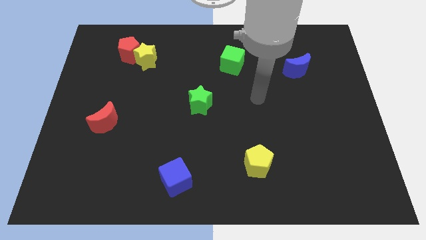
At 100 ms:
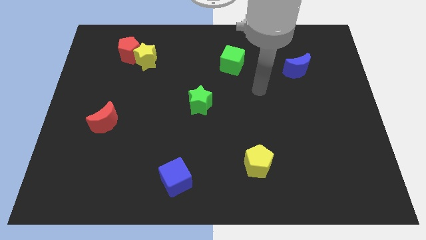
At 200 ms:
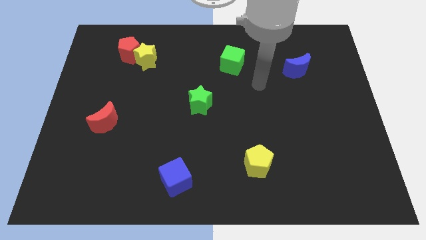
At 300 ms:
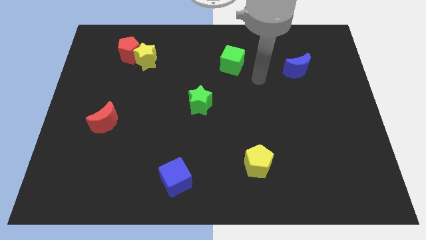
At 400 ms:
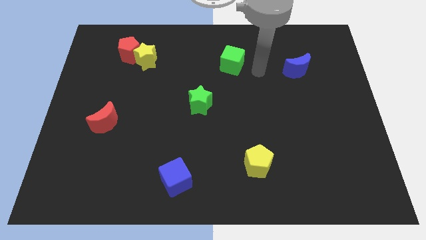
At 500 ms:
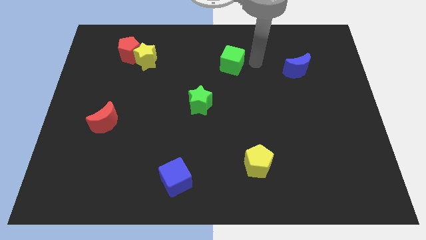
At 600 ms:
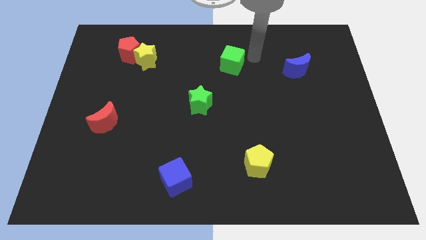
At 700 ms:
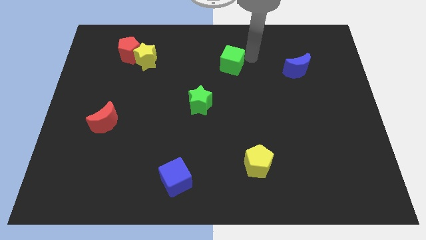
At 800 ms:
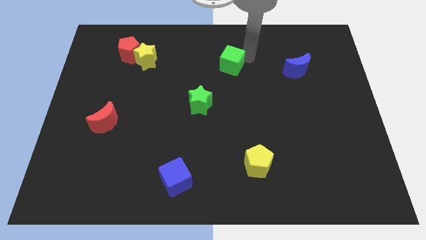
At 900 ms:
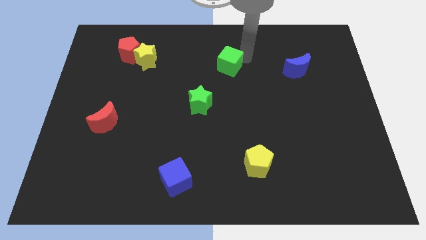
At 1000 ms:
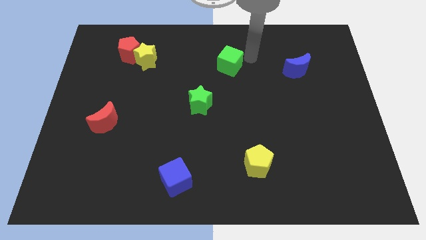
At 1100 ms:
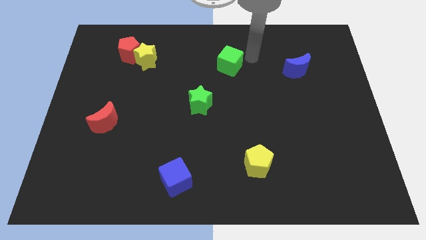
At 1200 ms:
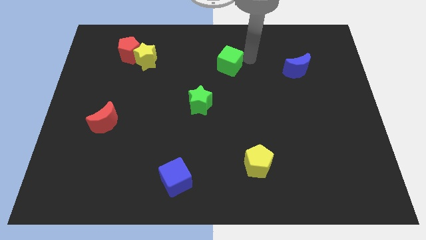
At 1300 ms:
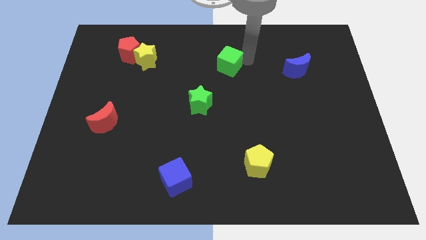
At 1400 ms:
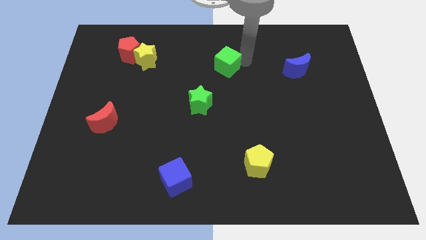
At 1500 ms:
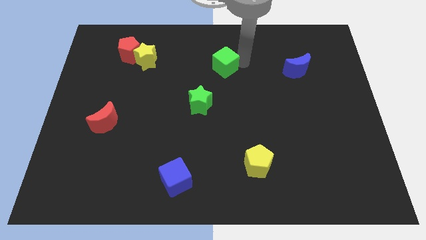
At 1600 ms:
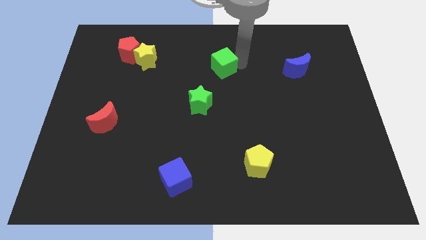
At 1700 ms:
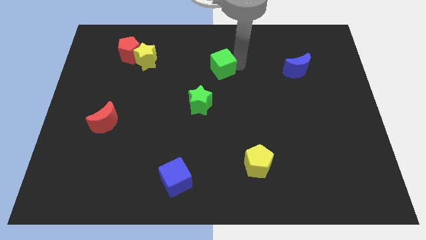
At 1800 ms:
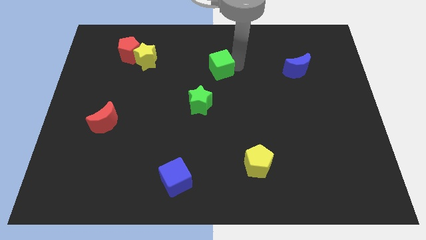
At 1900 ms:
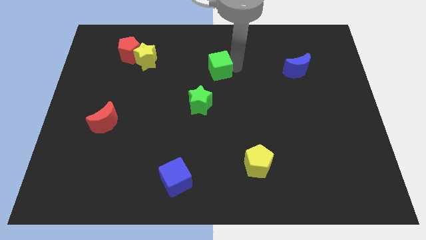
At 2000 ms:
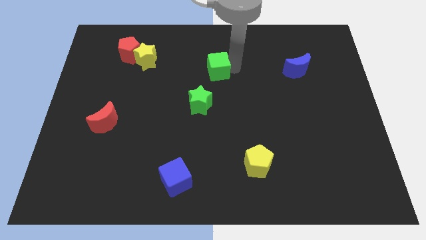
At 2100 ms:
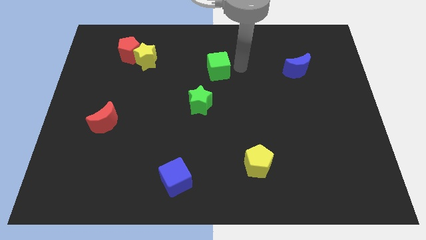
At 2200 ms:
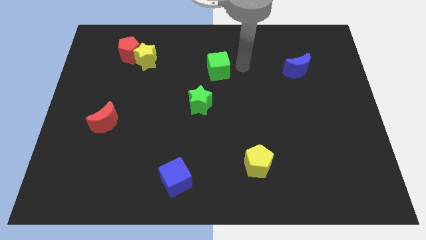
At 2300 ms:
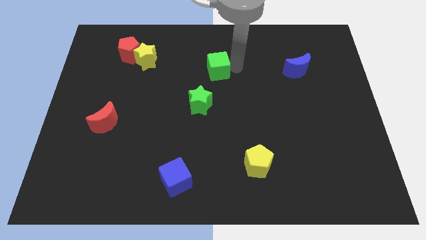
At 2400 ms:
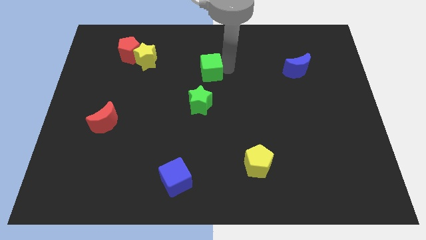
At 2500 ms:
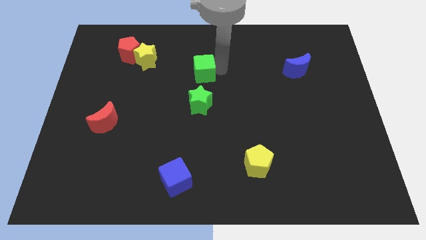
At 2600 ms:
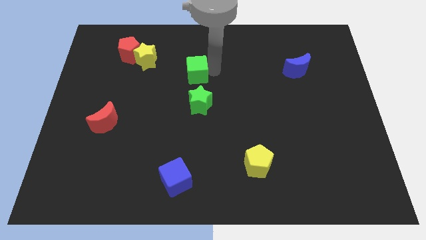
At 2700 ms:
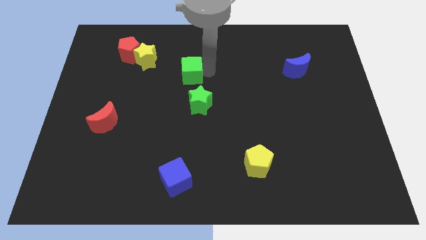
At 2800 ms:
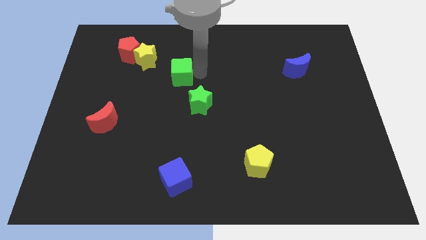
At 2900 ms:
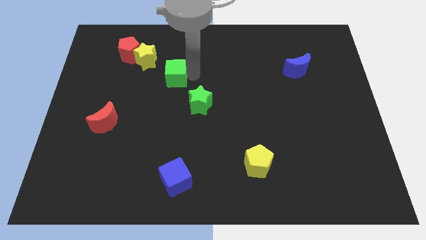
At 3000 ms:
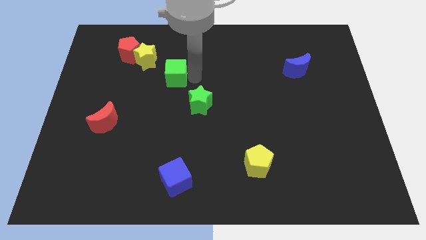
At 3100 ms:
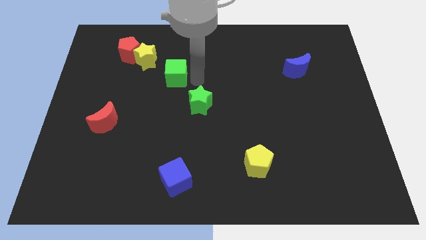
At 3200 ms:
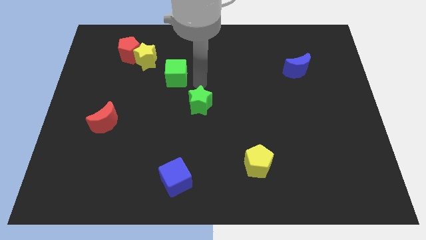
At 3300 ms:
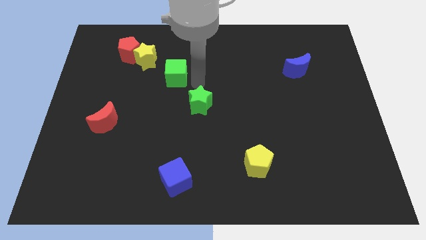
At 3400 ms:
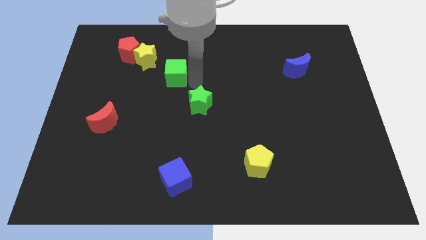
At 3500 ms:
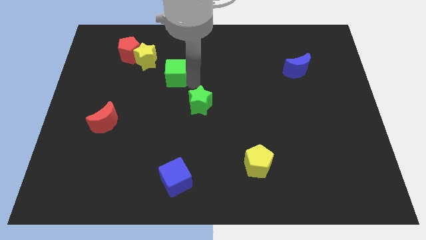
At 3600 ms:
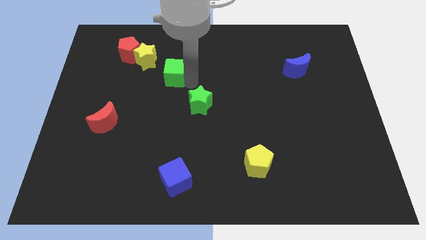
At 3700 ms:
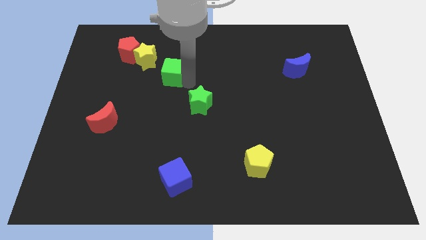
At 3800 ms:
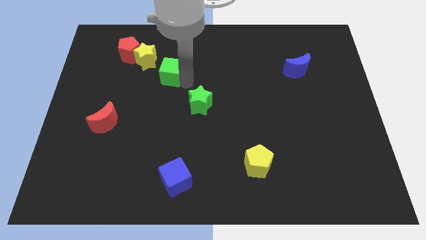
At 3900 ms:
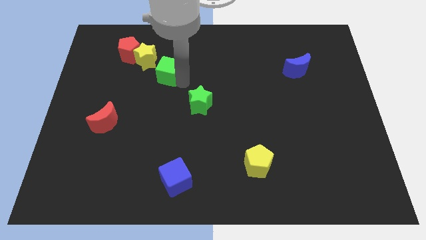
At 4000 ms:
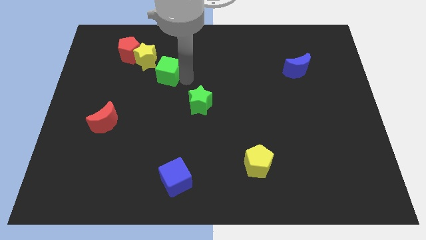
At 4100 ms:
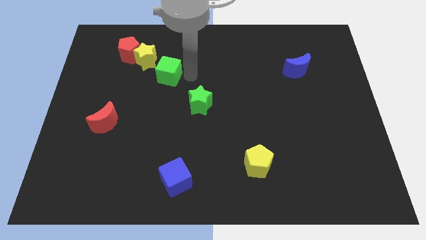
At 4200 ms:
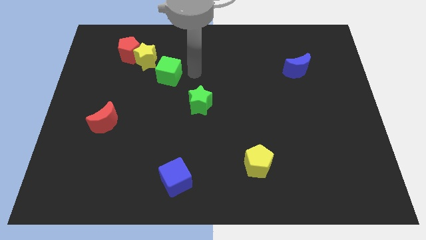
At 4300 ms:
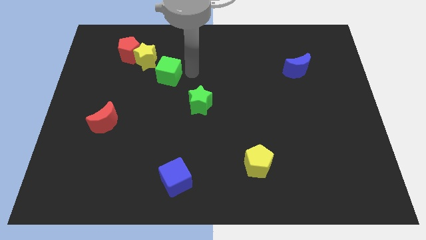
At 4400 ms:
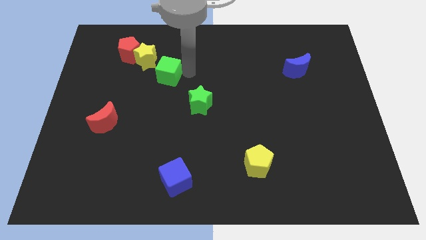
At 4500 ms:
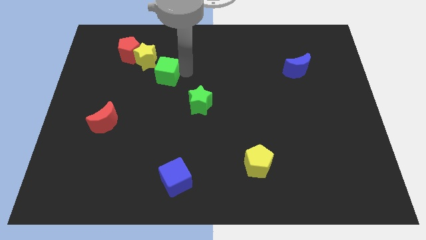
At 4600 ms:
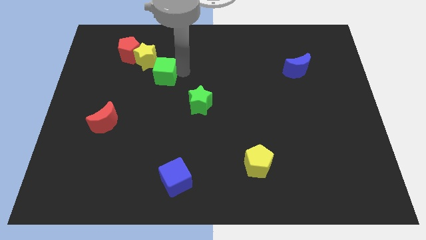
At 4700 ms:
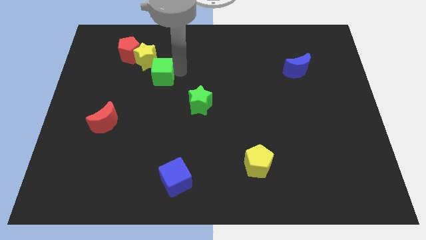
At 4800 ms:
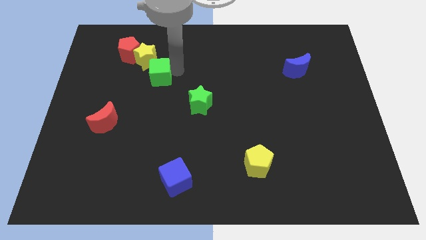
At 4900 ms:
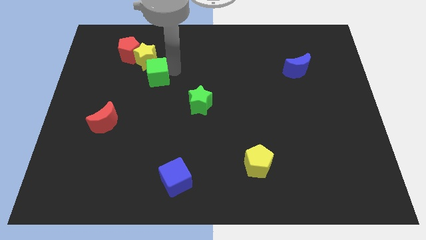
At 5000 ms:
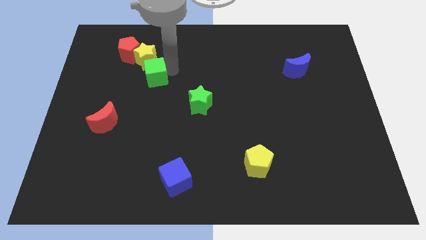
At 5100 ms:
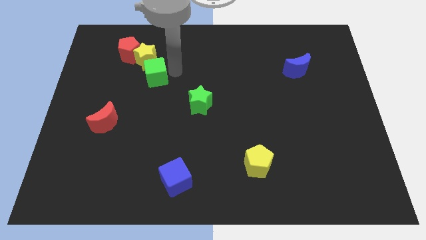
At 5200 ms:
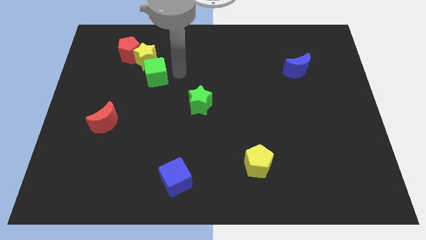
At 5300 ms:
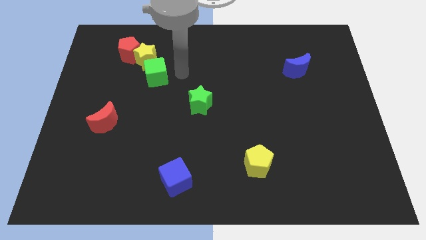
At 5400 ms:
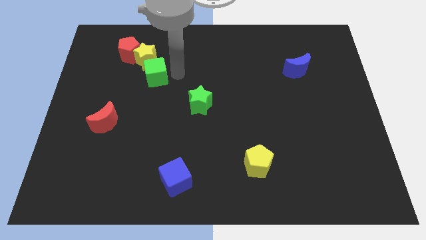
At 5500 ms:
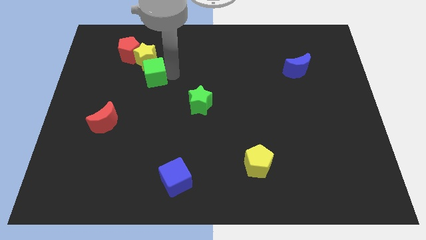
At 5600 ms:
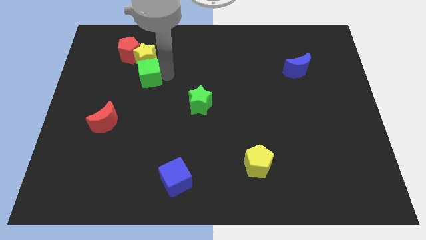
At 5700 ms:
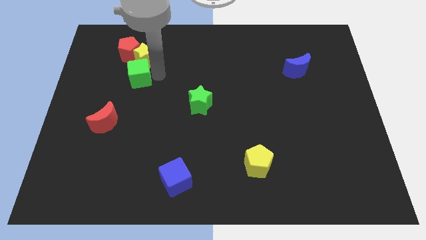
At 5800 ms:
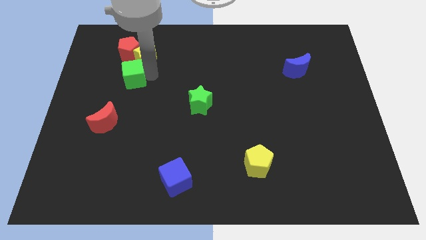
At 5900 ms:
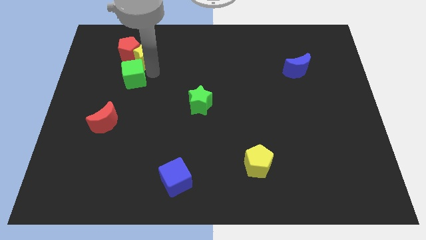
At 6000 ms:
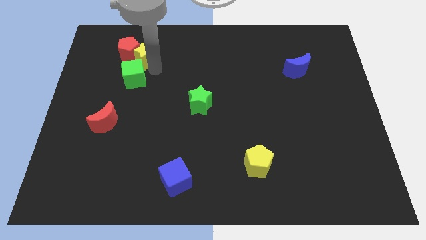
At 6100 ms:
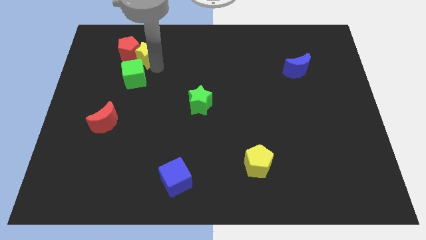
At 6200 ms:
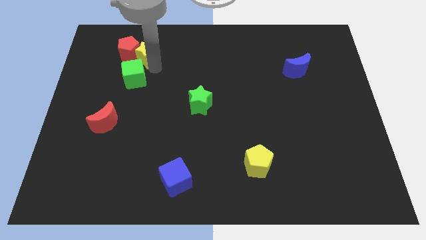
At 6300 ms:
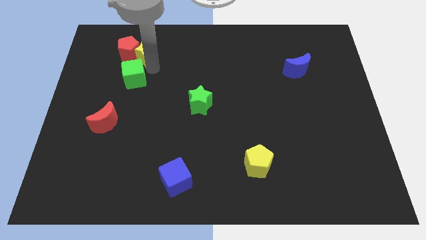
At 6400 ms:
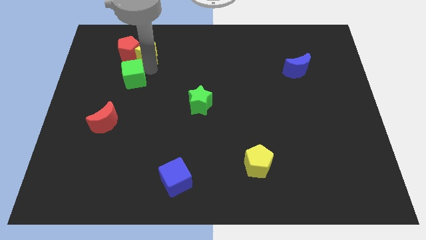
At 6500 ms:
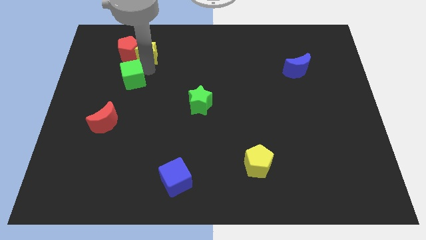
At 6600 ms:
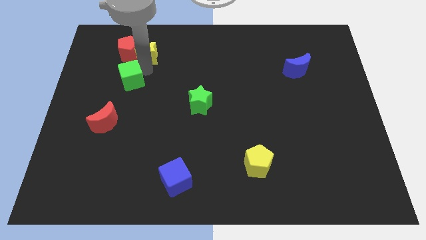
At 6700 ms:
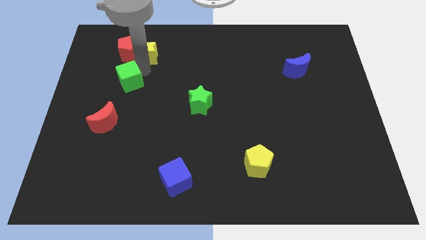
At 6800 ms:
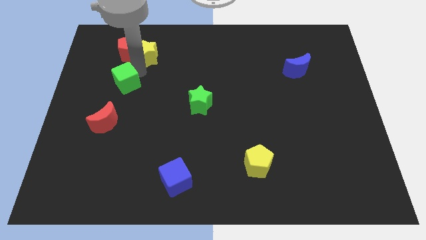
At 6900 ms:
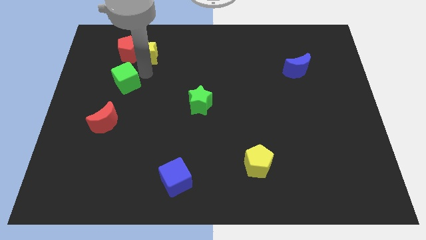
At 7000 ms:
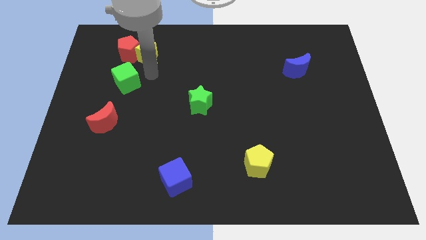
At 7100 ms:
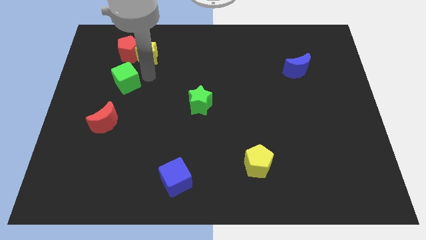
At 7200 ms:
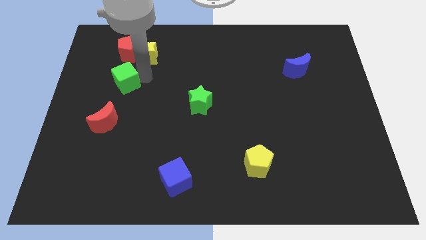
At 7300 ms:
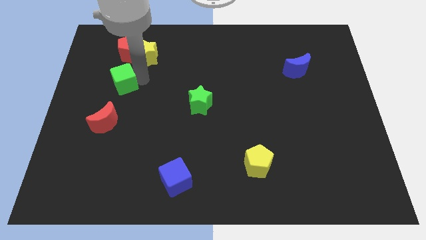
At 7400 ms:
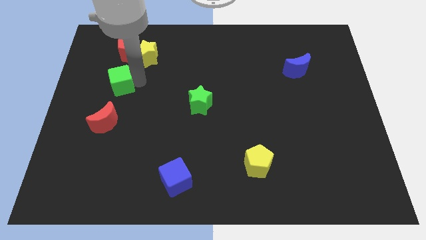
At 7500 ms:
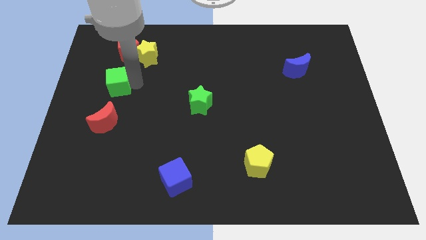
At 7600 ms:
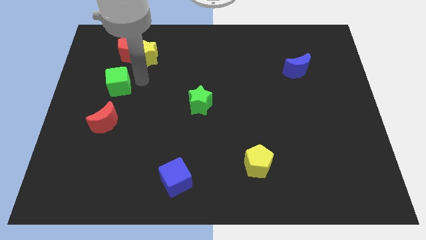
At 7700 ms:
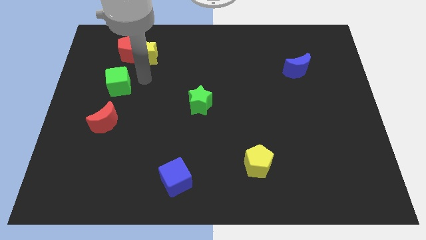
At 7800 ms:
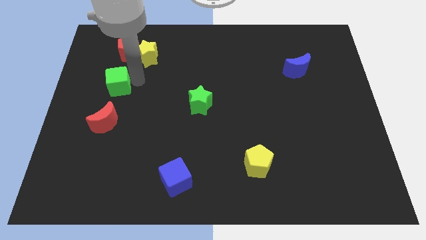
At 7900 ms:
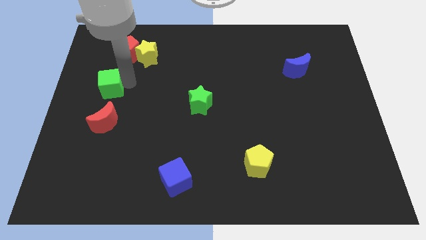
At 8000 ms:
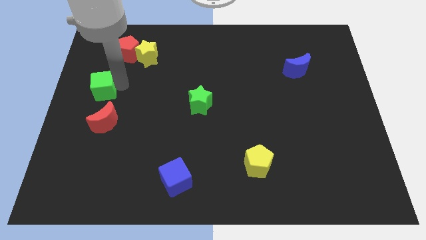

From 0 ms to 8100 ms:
slide the green cube to the left side of the board
